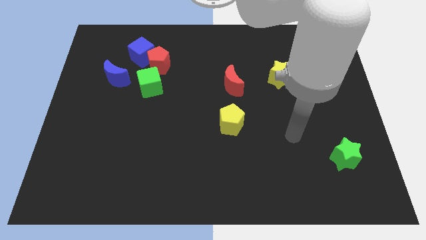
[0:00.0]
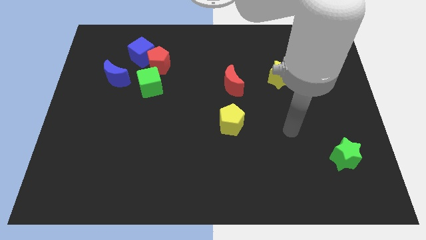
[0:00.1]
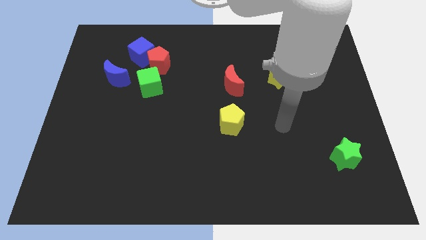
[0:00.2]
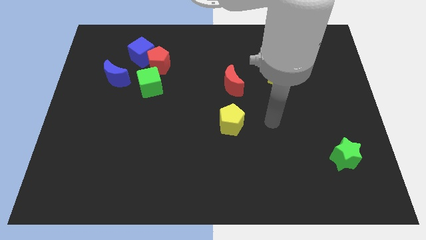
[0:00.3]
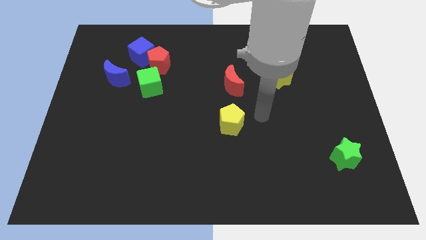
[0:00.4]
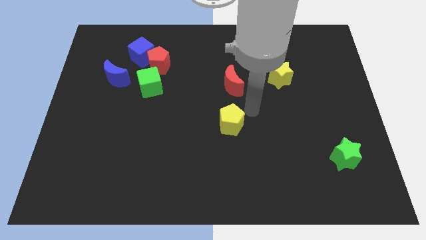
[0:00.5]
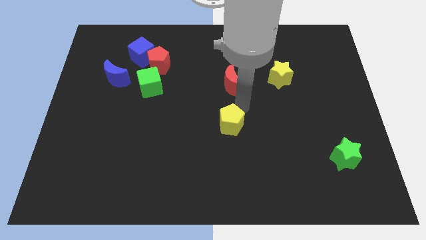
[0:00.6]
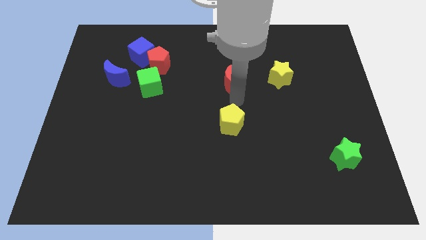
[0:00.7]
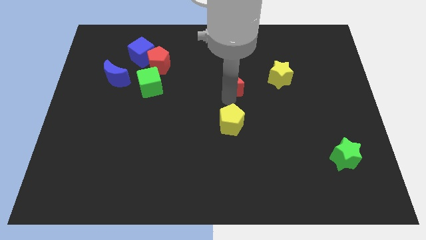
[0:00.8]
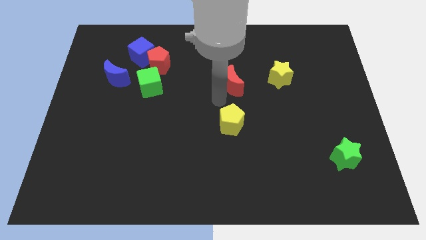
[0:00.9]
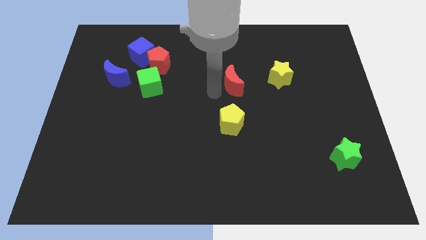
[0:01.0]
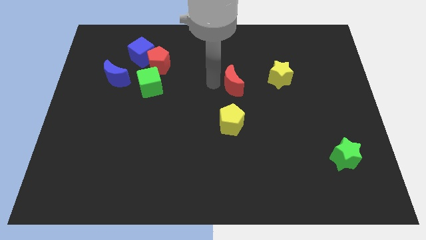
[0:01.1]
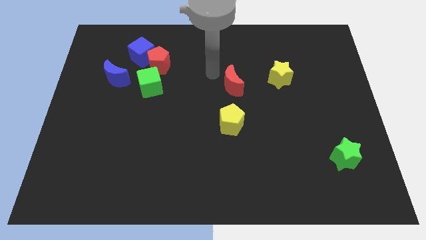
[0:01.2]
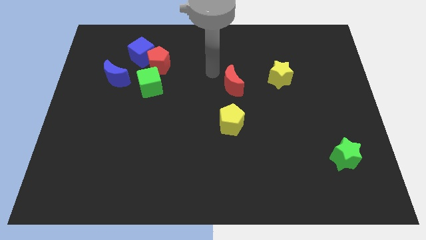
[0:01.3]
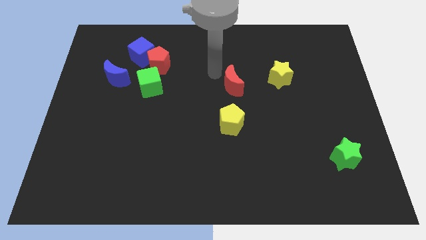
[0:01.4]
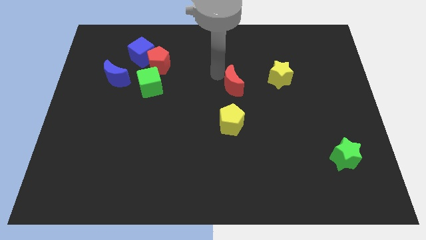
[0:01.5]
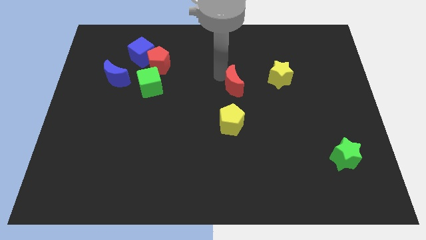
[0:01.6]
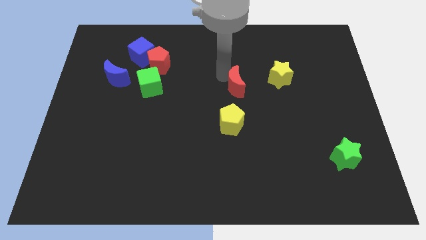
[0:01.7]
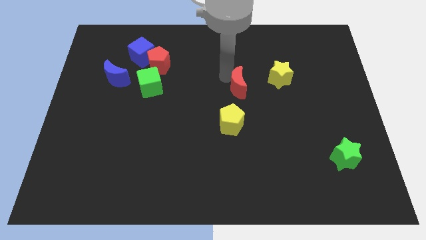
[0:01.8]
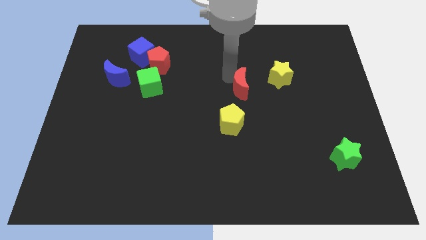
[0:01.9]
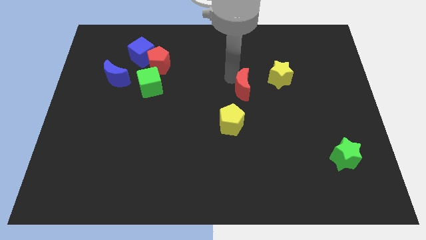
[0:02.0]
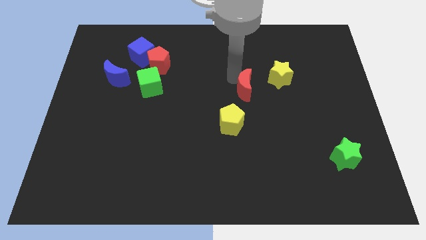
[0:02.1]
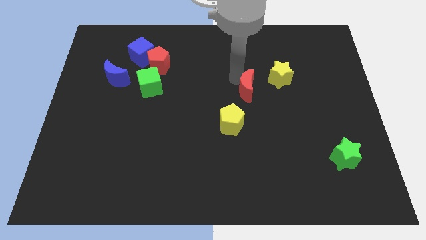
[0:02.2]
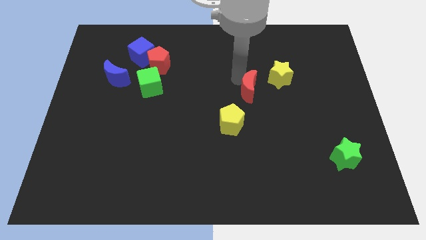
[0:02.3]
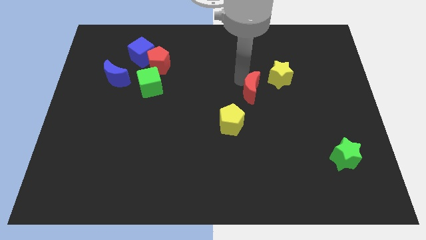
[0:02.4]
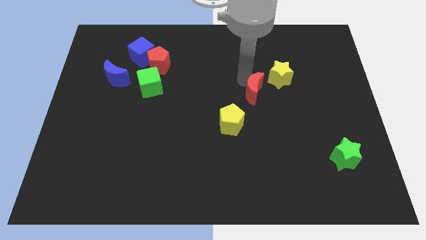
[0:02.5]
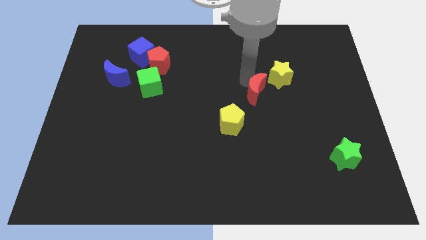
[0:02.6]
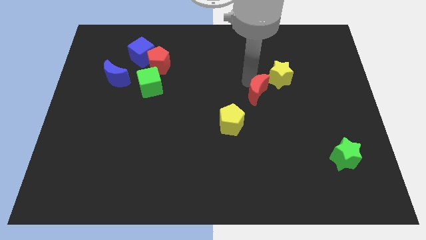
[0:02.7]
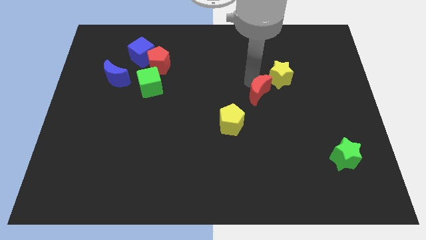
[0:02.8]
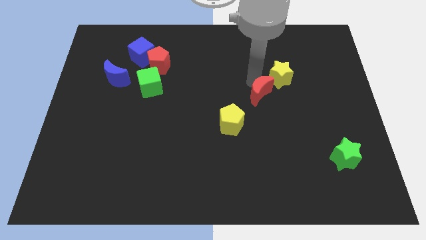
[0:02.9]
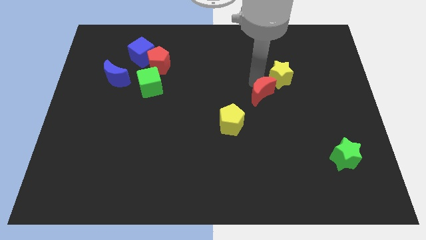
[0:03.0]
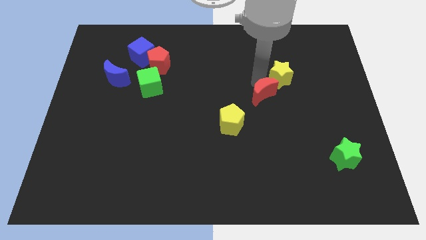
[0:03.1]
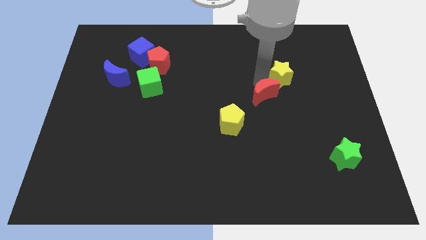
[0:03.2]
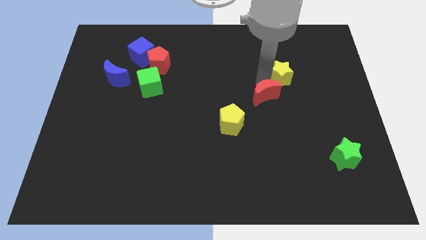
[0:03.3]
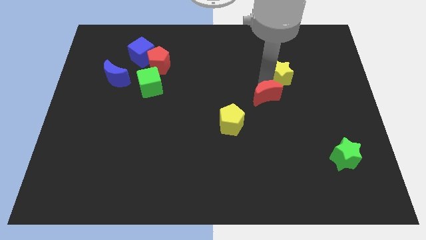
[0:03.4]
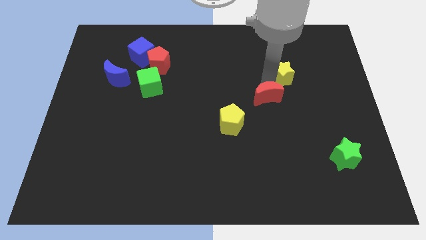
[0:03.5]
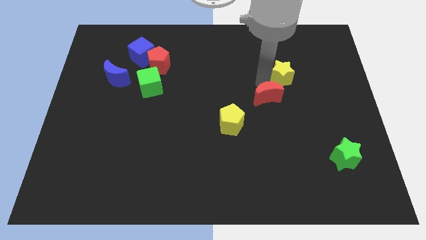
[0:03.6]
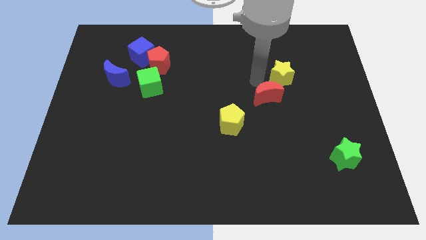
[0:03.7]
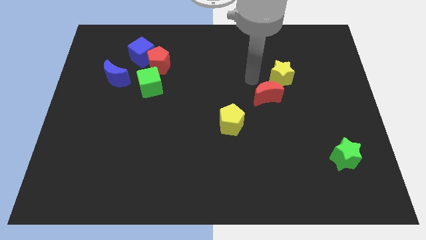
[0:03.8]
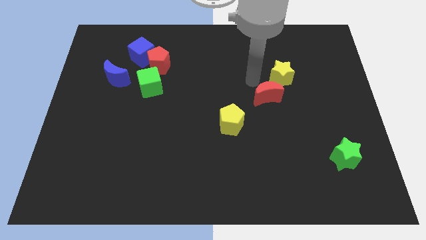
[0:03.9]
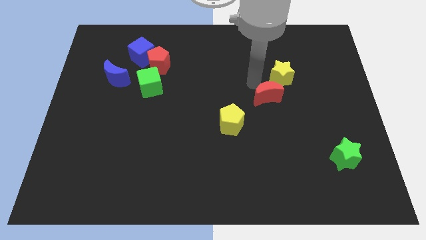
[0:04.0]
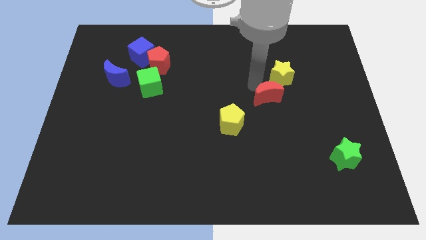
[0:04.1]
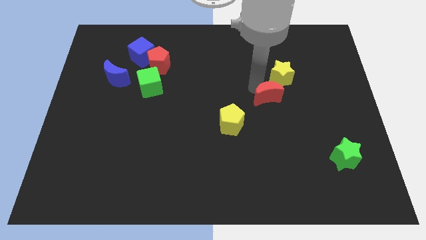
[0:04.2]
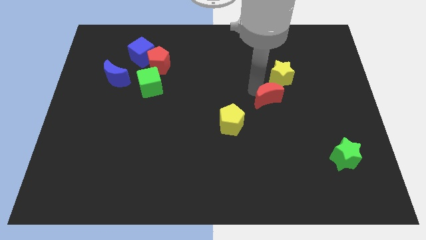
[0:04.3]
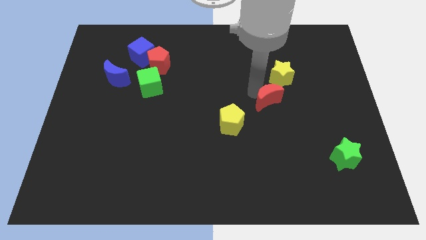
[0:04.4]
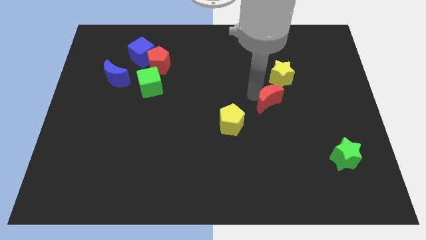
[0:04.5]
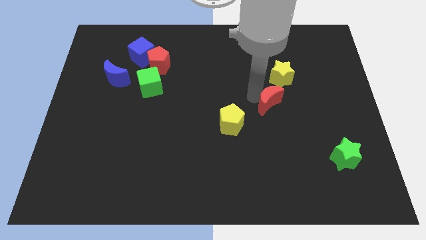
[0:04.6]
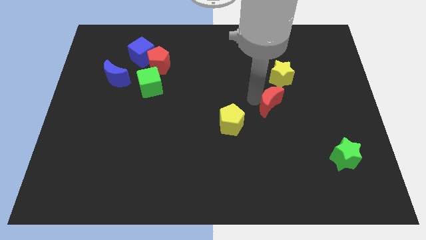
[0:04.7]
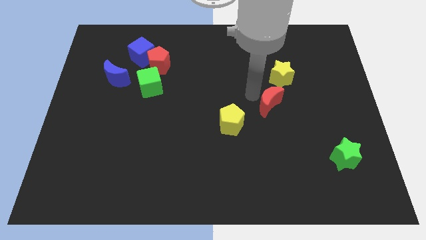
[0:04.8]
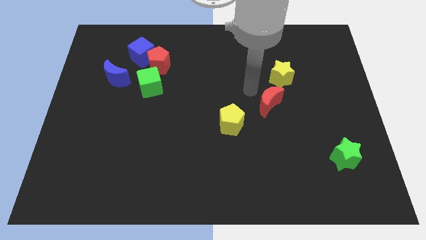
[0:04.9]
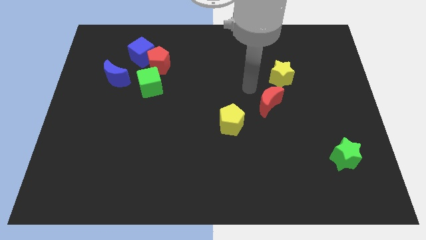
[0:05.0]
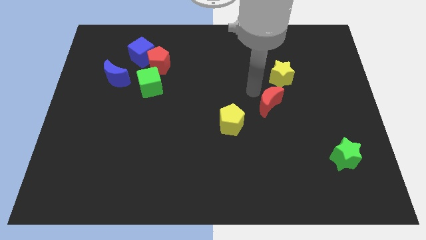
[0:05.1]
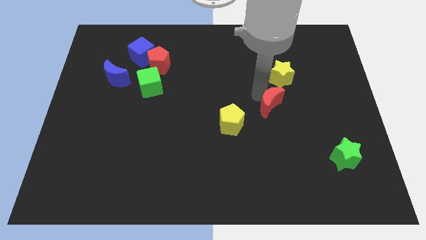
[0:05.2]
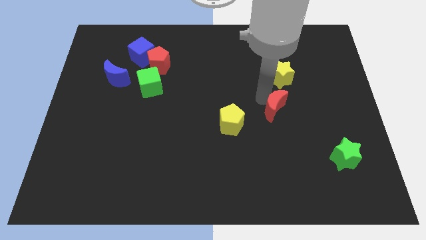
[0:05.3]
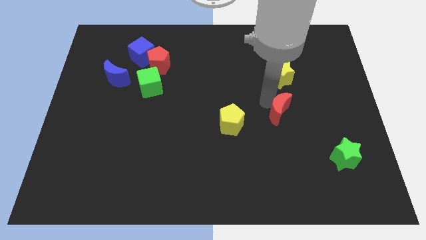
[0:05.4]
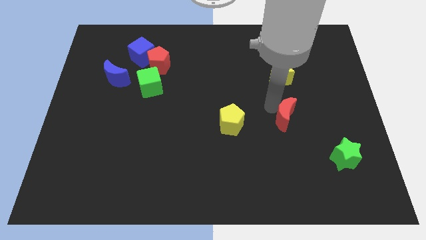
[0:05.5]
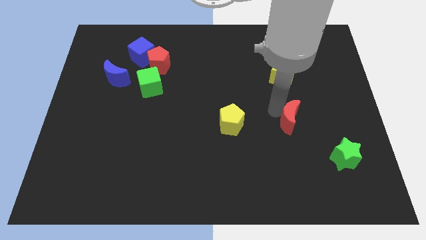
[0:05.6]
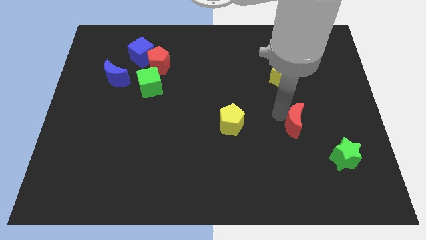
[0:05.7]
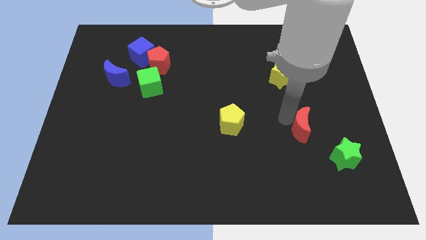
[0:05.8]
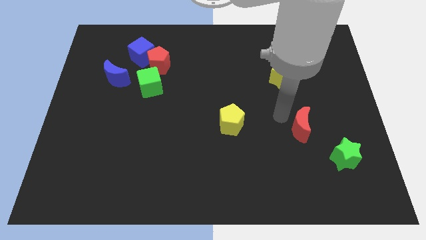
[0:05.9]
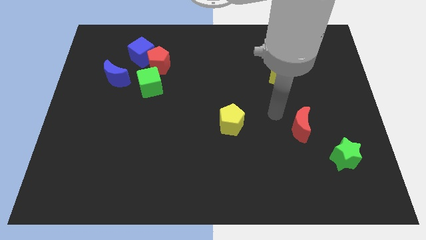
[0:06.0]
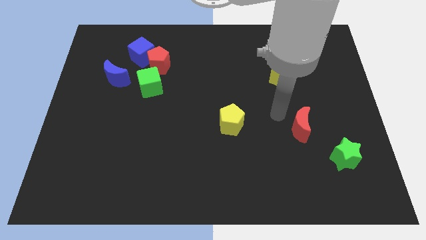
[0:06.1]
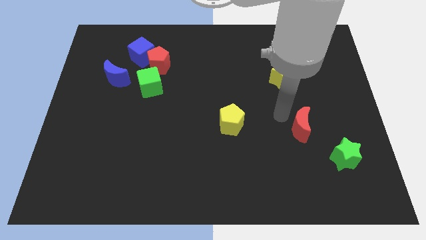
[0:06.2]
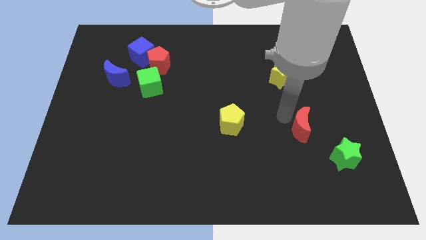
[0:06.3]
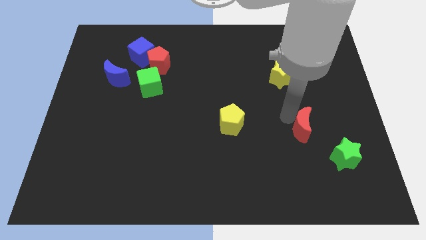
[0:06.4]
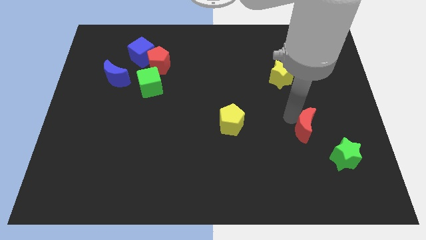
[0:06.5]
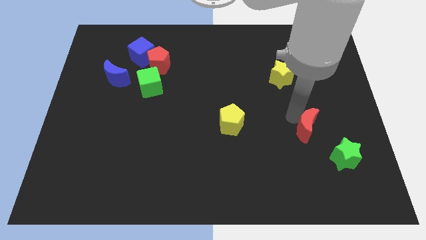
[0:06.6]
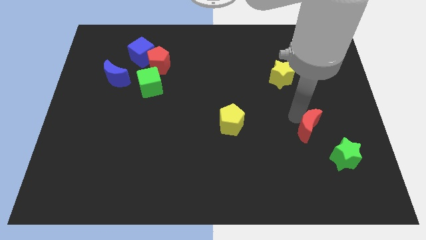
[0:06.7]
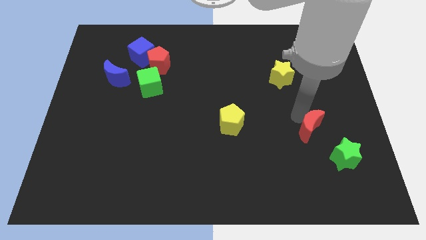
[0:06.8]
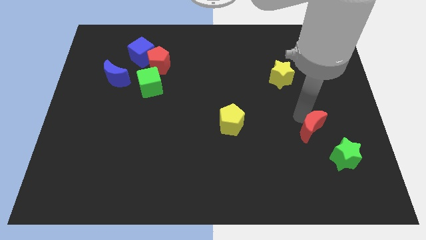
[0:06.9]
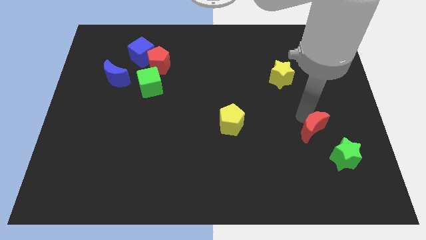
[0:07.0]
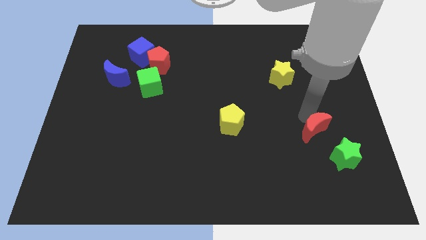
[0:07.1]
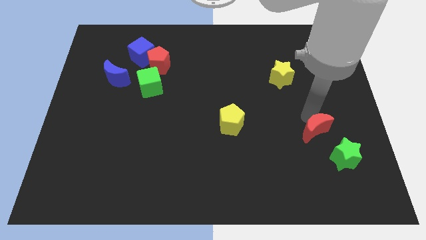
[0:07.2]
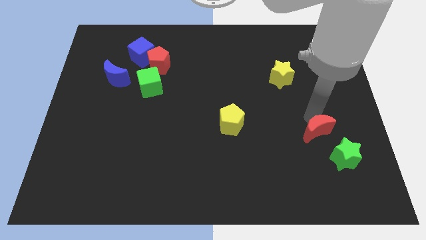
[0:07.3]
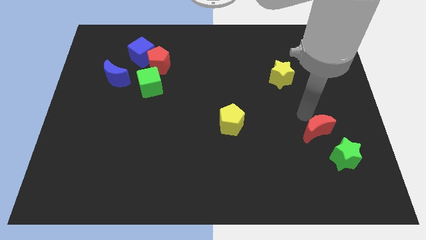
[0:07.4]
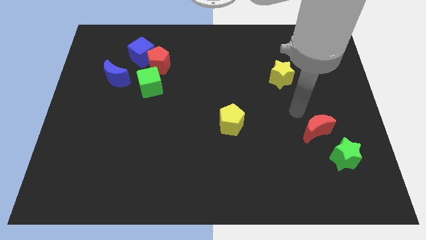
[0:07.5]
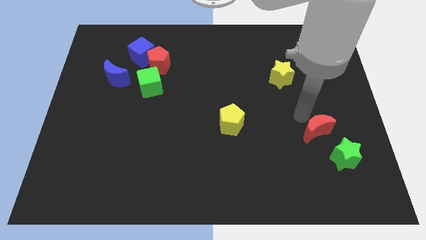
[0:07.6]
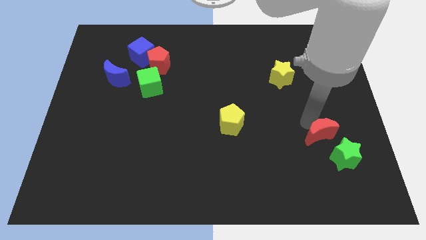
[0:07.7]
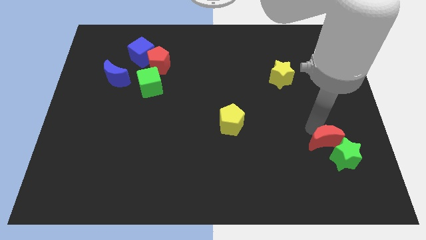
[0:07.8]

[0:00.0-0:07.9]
move the red moon close to the green star

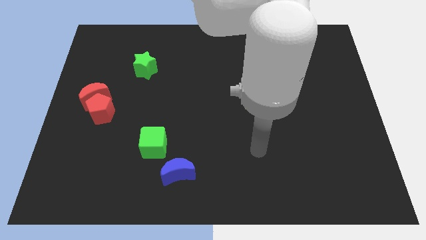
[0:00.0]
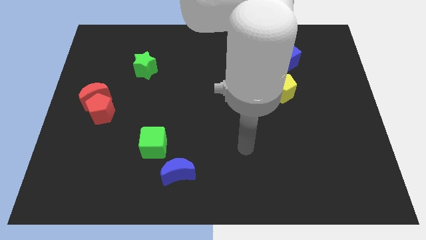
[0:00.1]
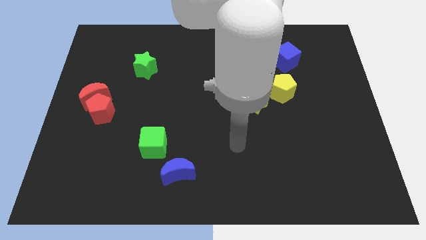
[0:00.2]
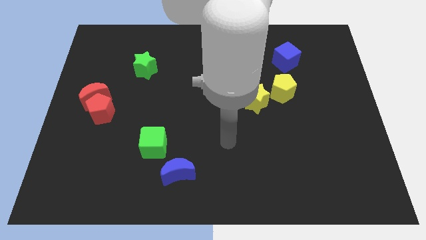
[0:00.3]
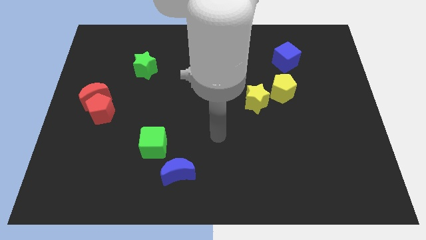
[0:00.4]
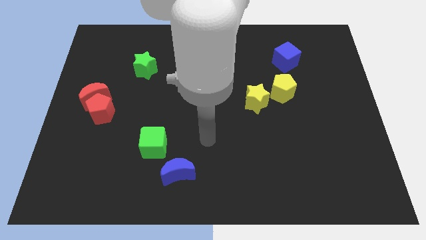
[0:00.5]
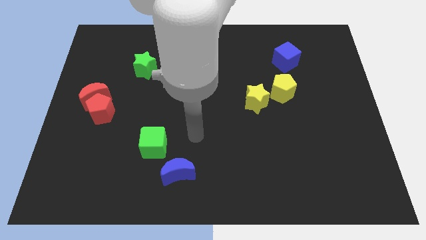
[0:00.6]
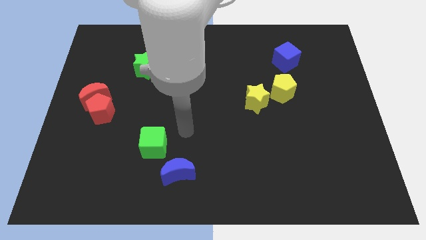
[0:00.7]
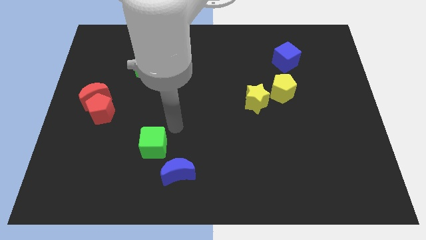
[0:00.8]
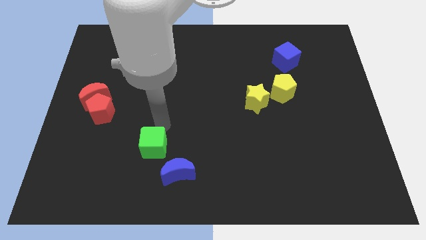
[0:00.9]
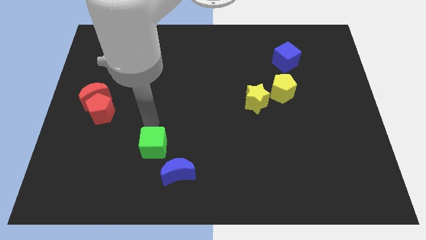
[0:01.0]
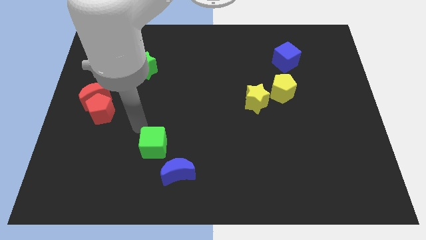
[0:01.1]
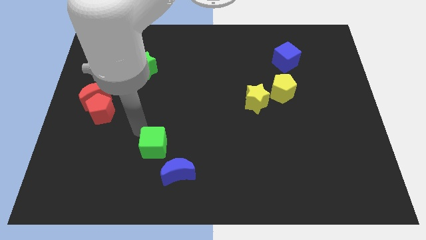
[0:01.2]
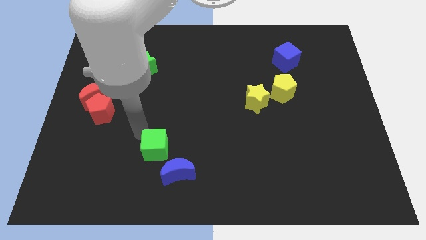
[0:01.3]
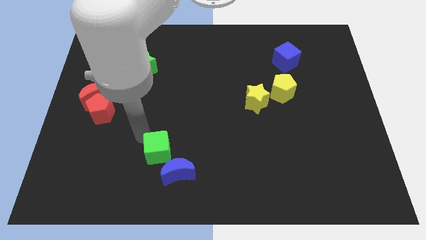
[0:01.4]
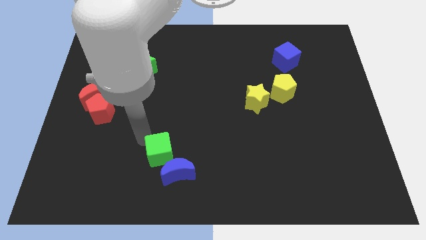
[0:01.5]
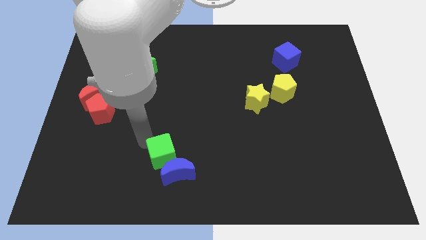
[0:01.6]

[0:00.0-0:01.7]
put the green cube close to the blue moon
